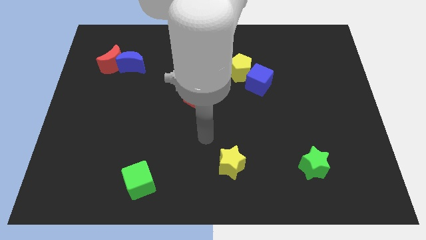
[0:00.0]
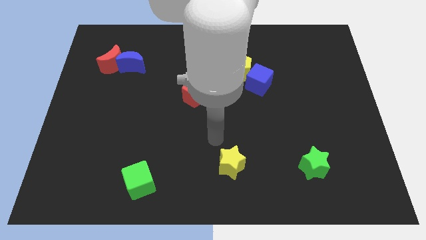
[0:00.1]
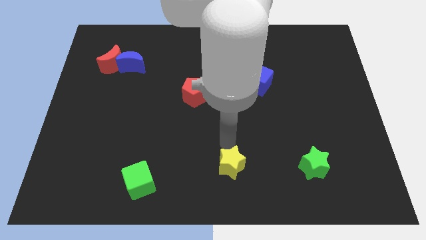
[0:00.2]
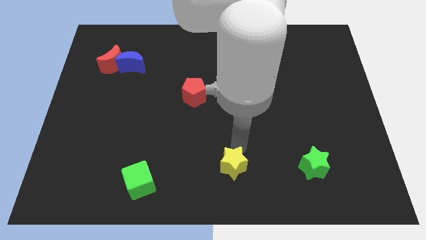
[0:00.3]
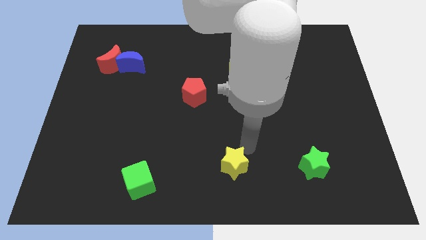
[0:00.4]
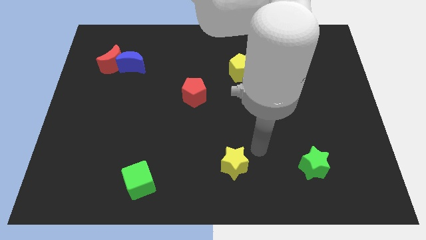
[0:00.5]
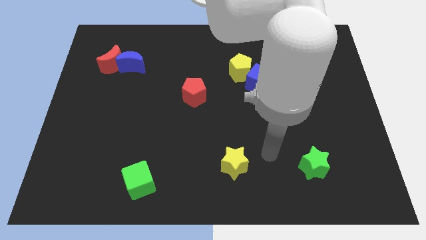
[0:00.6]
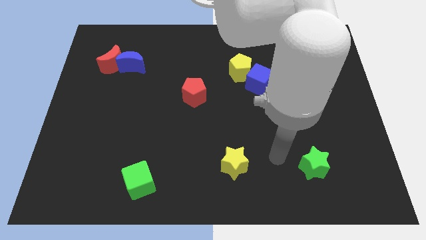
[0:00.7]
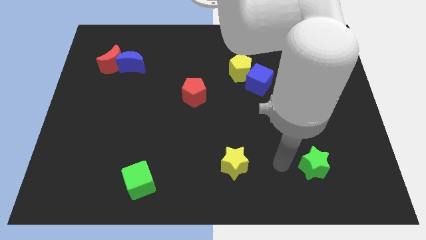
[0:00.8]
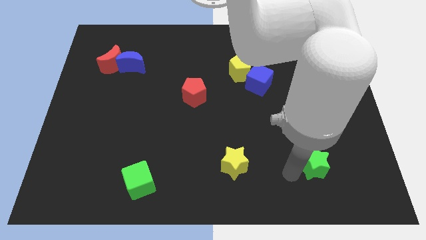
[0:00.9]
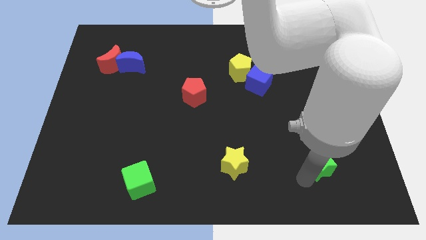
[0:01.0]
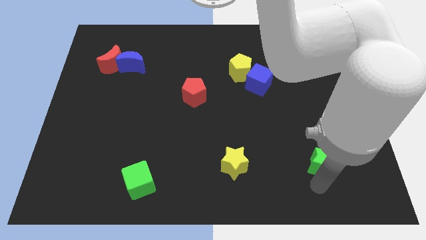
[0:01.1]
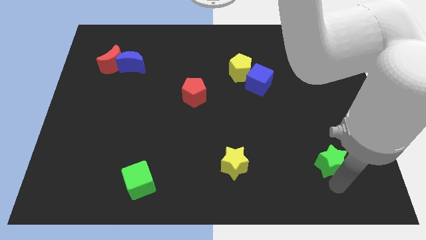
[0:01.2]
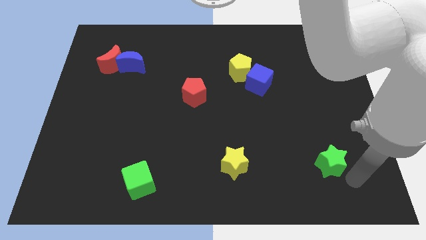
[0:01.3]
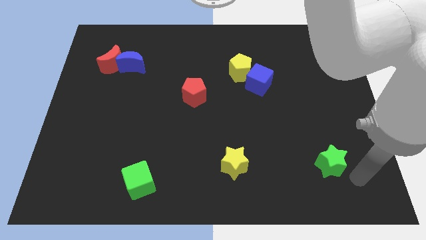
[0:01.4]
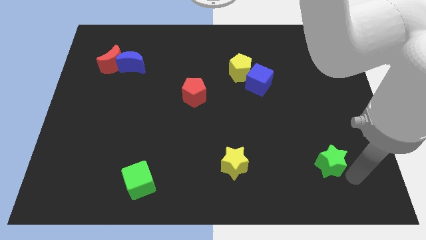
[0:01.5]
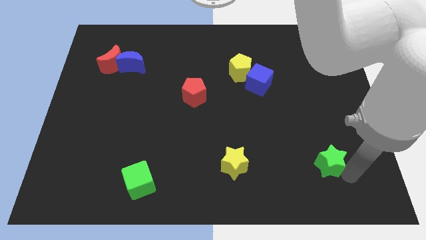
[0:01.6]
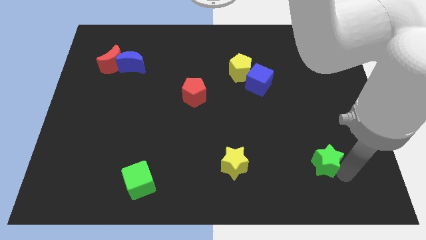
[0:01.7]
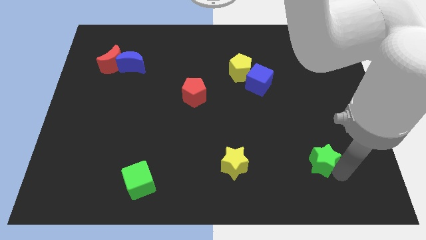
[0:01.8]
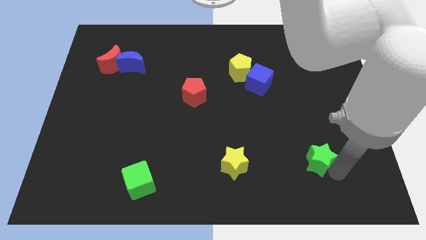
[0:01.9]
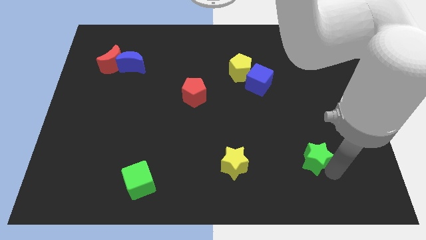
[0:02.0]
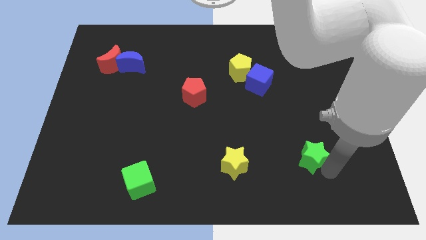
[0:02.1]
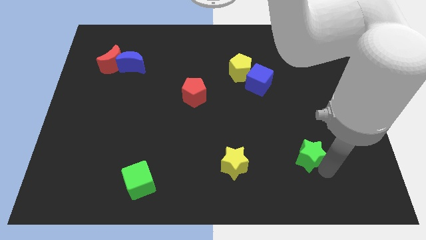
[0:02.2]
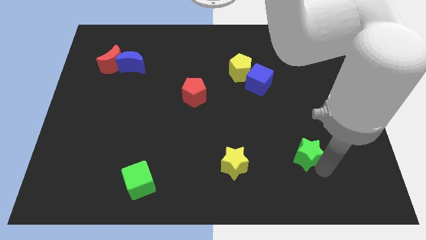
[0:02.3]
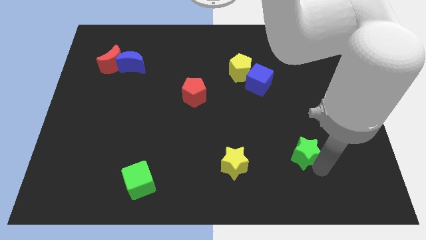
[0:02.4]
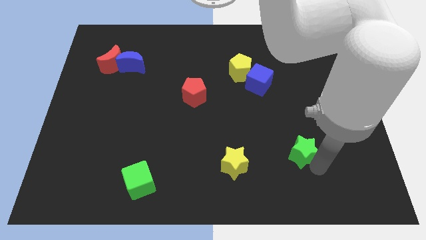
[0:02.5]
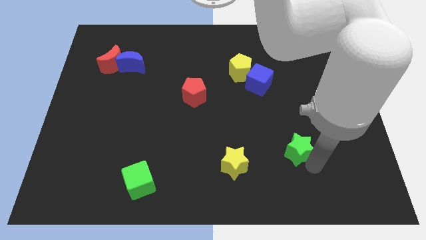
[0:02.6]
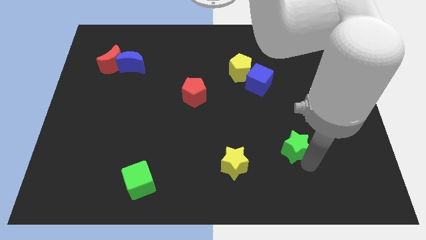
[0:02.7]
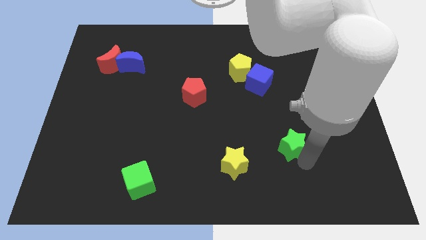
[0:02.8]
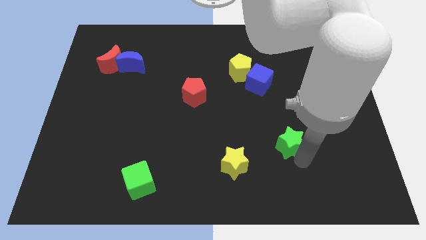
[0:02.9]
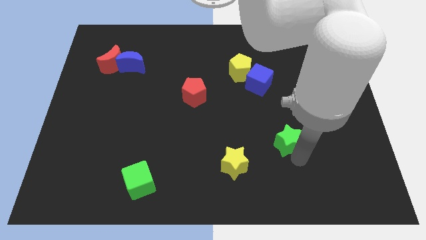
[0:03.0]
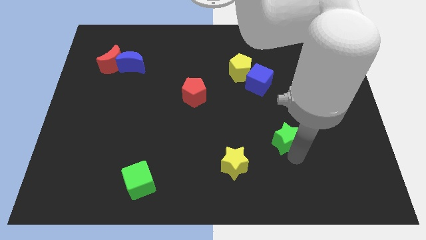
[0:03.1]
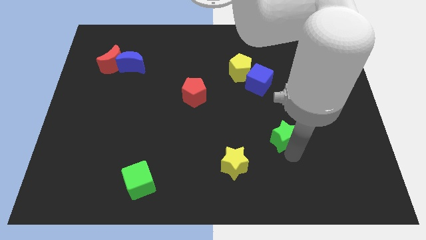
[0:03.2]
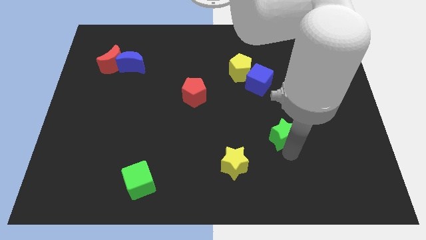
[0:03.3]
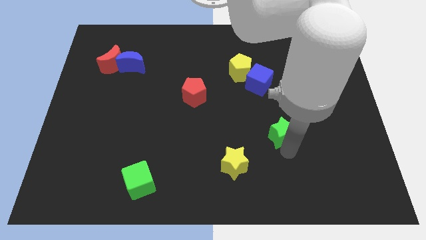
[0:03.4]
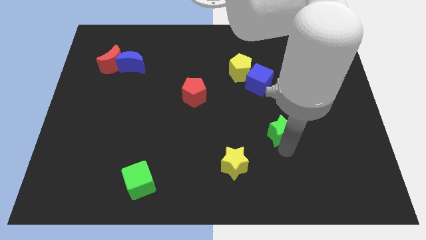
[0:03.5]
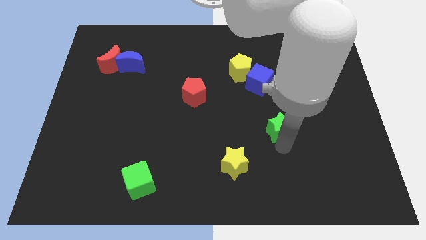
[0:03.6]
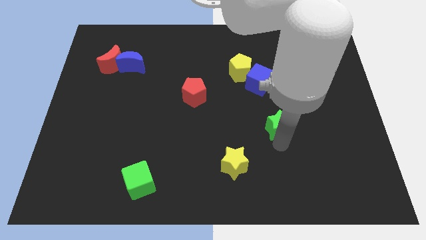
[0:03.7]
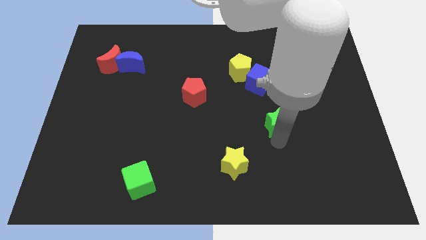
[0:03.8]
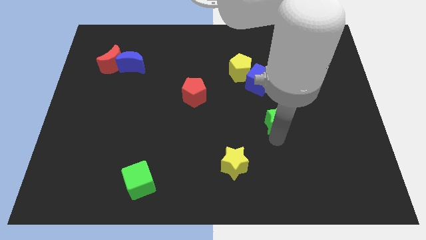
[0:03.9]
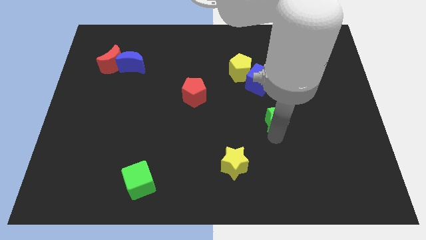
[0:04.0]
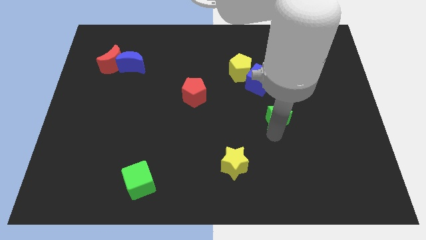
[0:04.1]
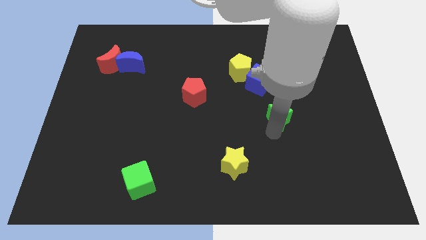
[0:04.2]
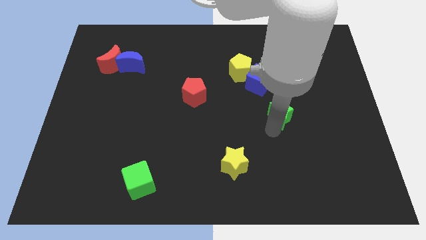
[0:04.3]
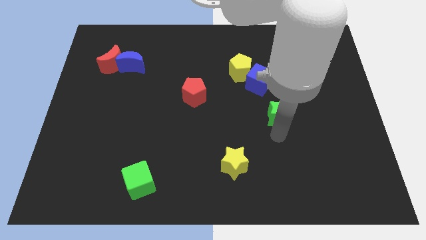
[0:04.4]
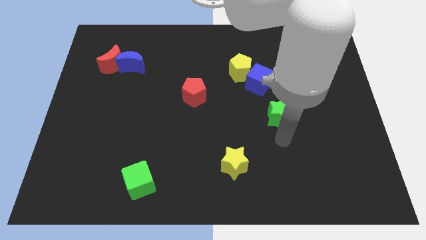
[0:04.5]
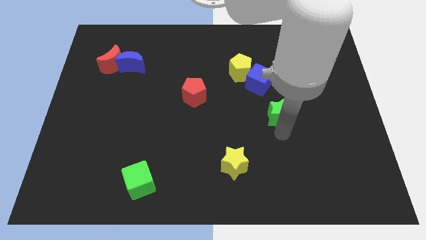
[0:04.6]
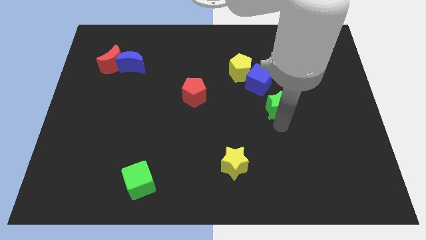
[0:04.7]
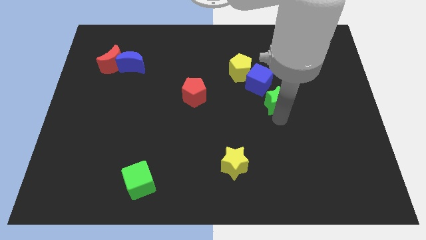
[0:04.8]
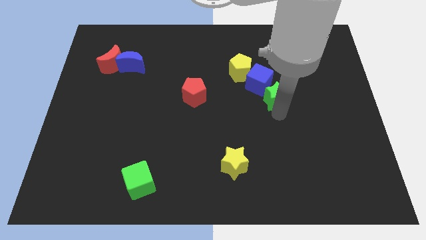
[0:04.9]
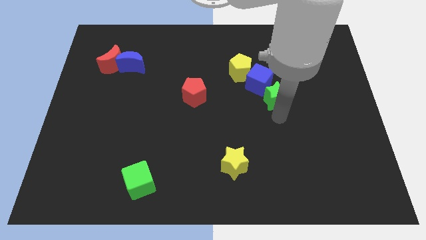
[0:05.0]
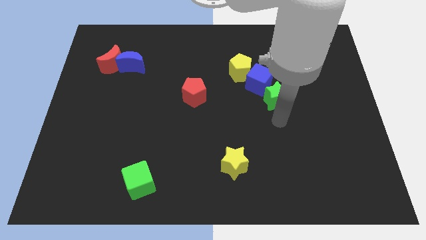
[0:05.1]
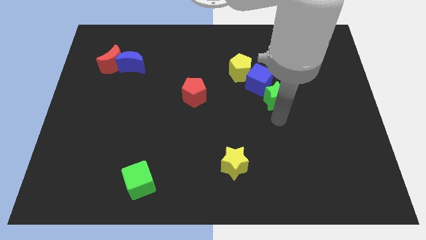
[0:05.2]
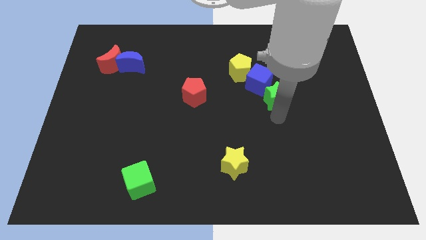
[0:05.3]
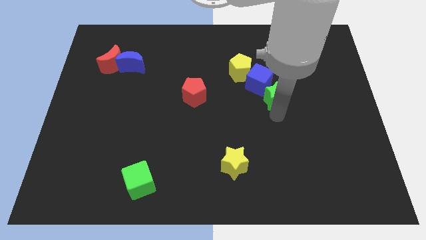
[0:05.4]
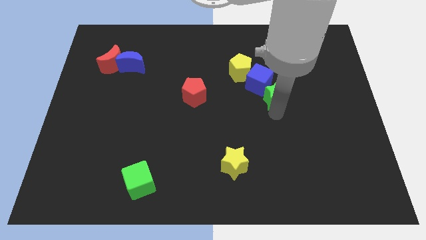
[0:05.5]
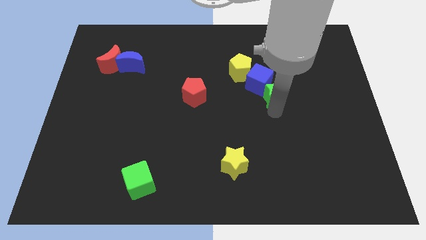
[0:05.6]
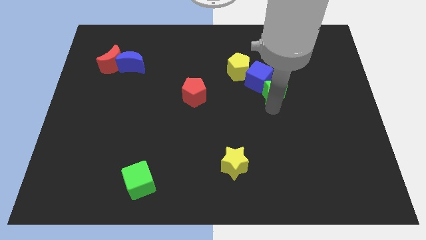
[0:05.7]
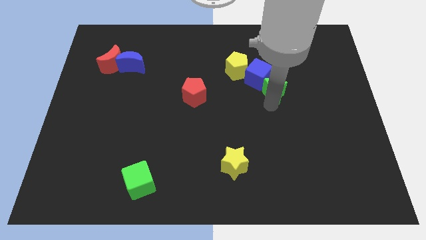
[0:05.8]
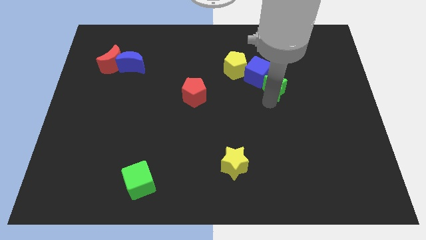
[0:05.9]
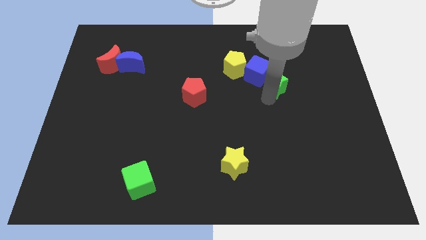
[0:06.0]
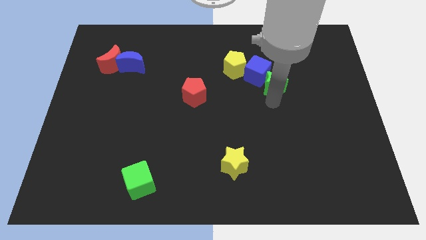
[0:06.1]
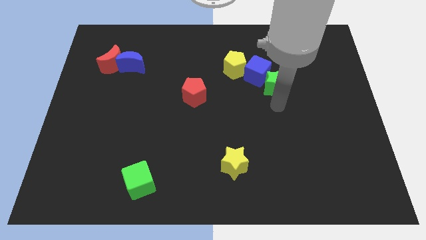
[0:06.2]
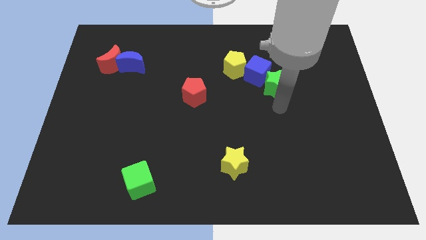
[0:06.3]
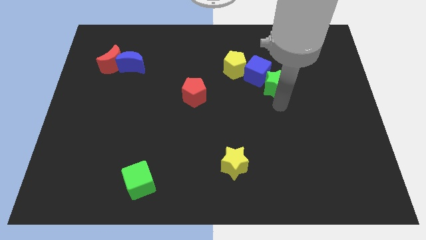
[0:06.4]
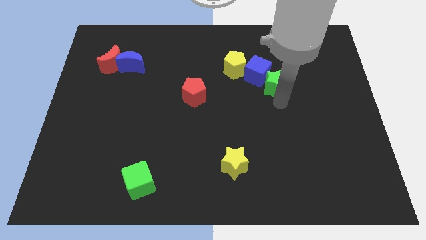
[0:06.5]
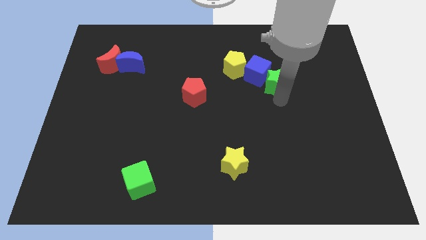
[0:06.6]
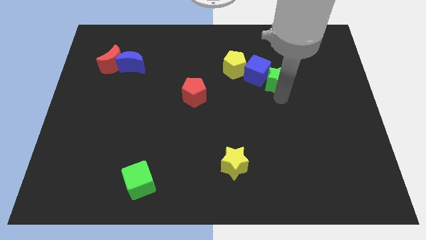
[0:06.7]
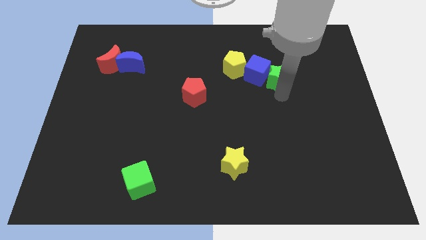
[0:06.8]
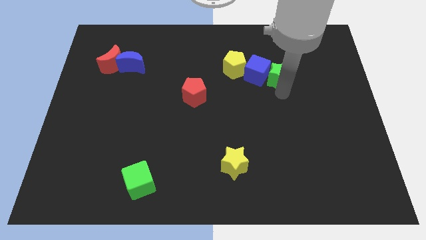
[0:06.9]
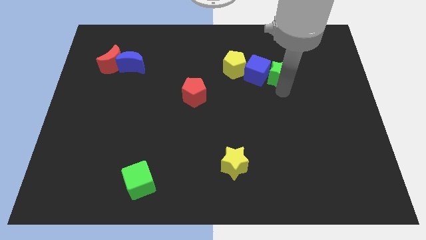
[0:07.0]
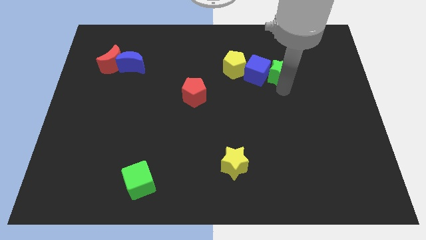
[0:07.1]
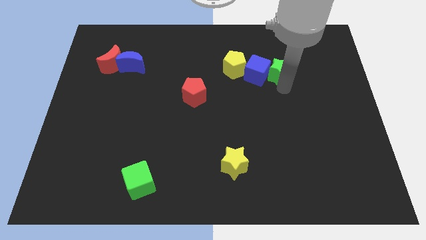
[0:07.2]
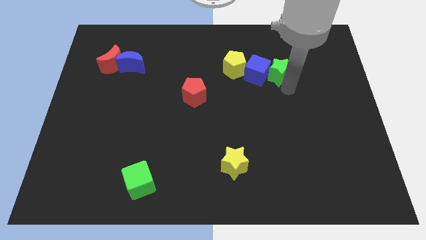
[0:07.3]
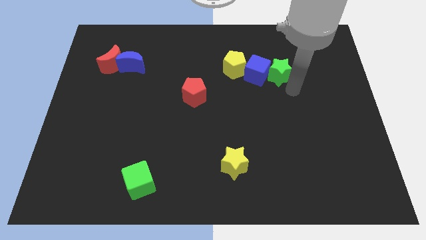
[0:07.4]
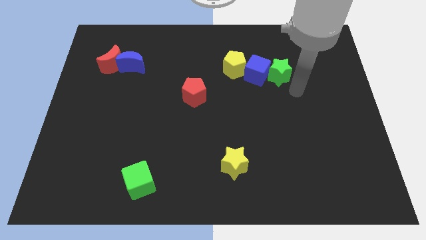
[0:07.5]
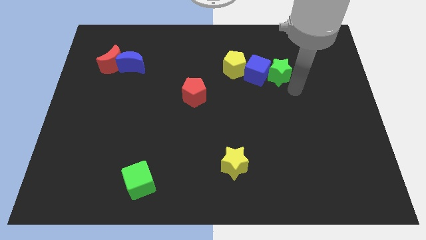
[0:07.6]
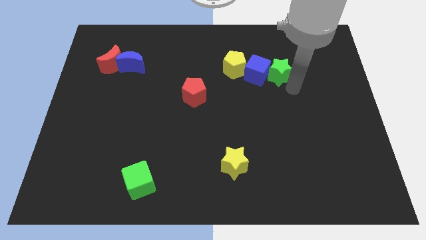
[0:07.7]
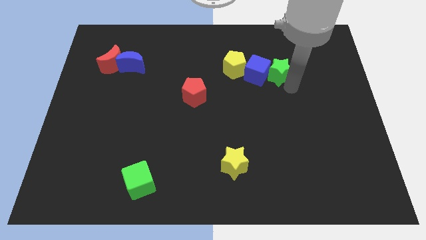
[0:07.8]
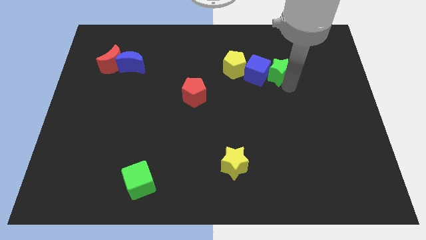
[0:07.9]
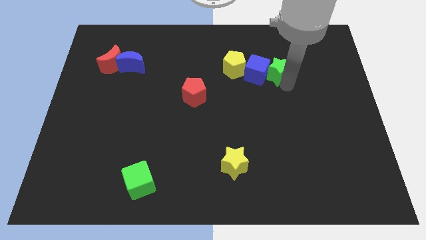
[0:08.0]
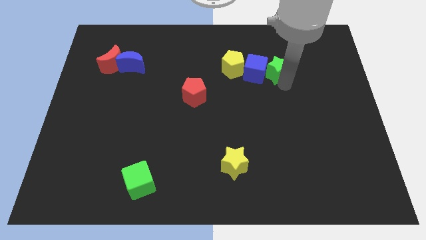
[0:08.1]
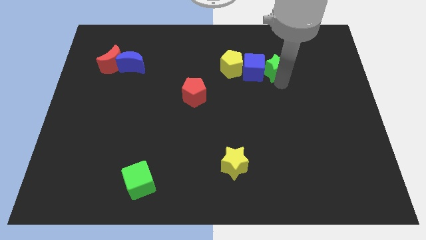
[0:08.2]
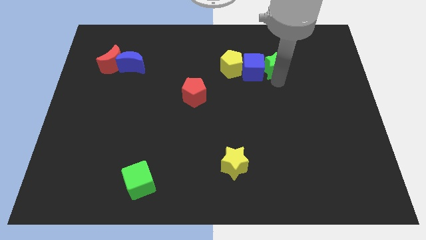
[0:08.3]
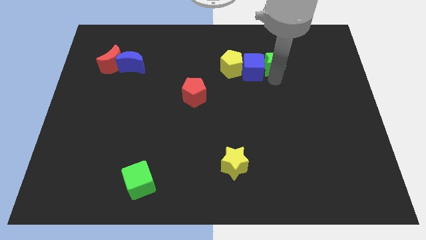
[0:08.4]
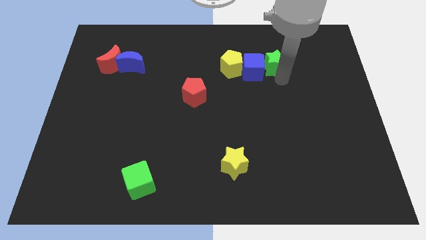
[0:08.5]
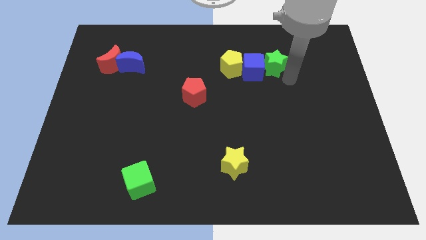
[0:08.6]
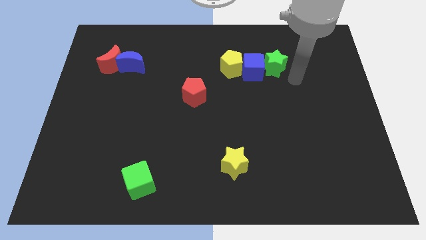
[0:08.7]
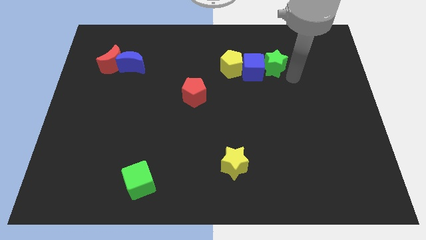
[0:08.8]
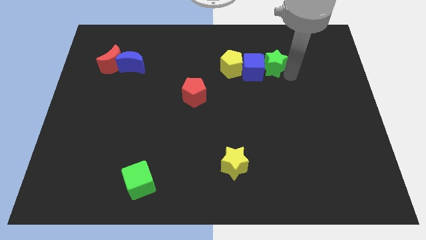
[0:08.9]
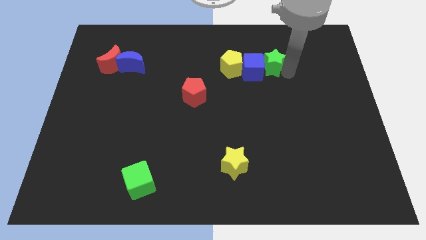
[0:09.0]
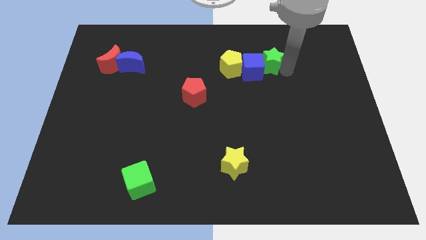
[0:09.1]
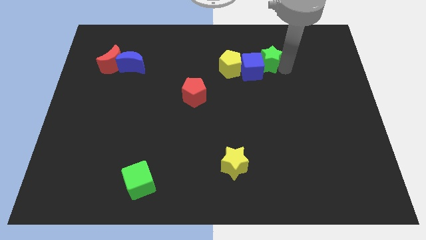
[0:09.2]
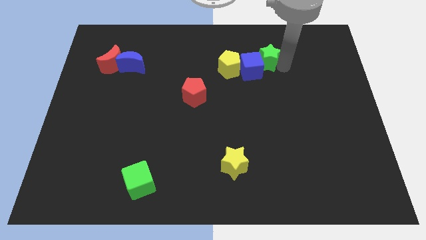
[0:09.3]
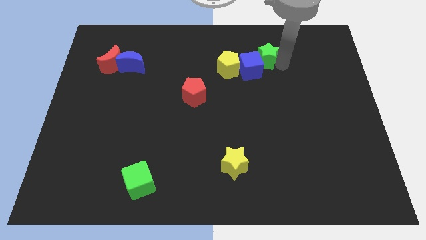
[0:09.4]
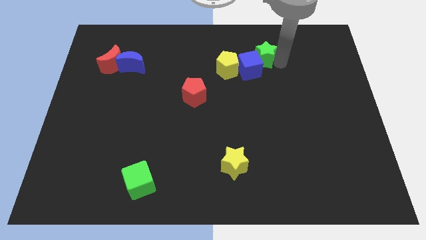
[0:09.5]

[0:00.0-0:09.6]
push the green star to the top right of the yellow pentagon
